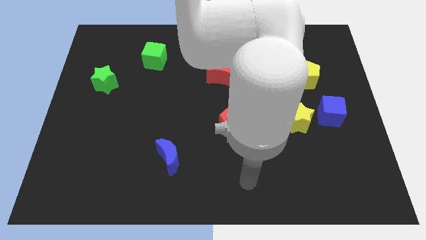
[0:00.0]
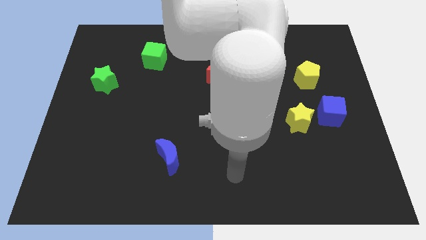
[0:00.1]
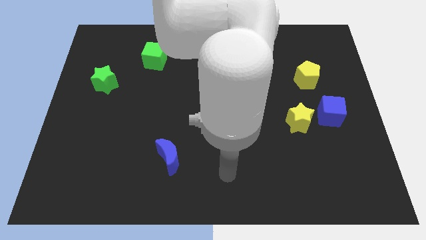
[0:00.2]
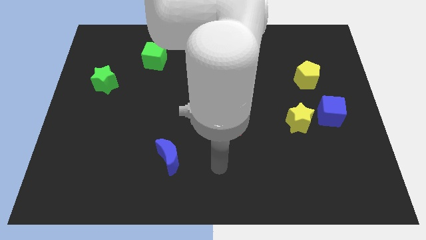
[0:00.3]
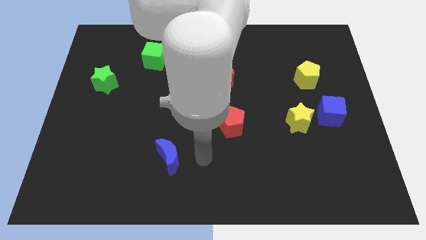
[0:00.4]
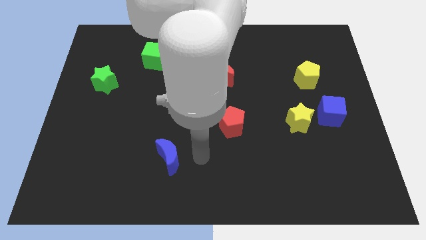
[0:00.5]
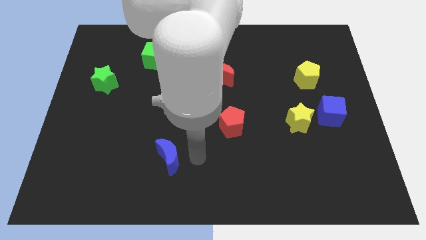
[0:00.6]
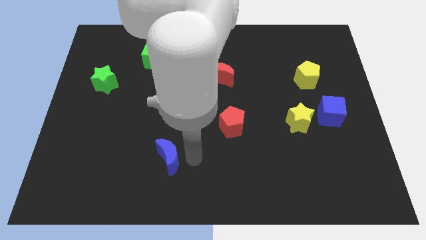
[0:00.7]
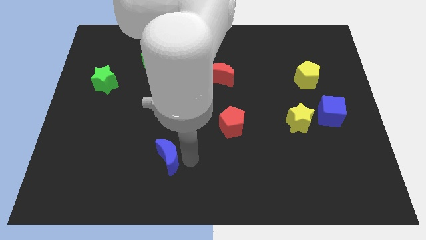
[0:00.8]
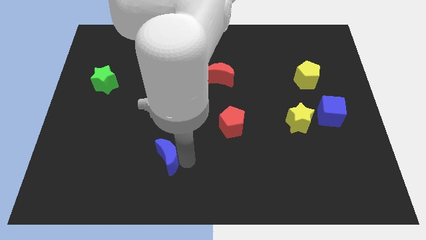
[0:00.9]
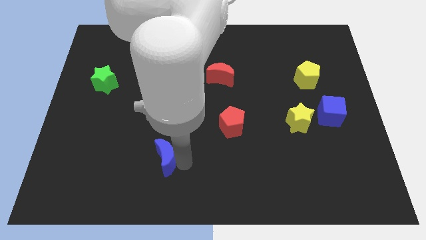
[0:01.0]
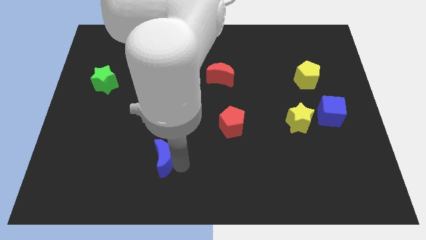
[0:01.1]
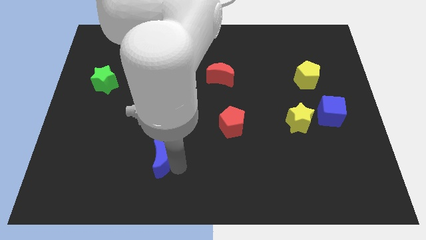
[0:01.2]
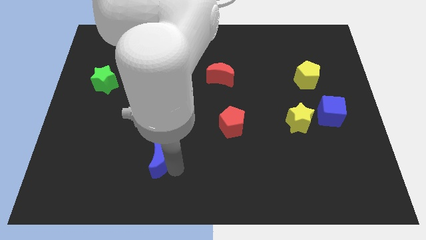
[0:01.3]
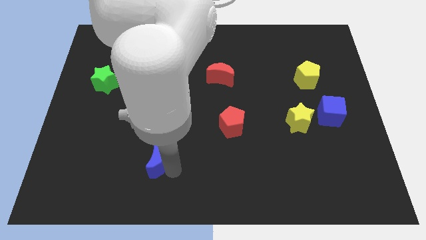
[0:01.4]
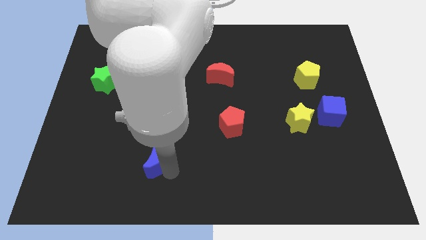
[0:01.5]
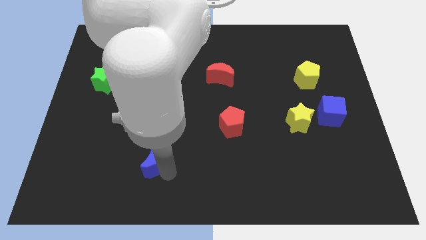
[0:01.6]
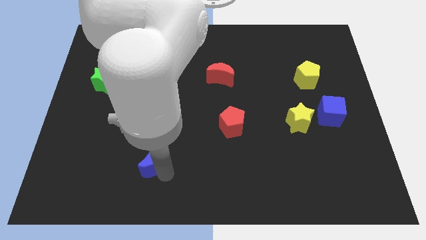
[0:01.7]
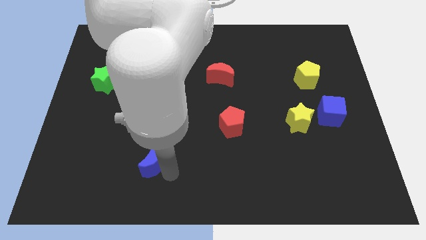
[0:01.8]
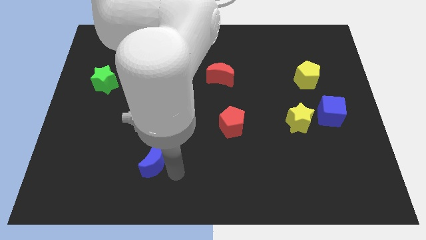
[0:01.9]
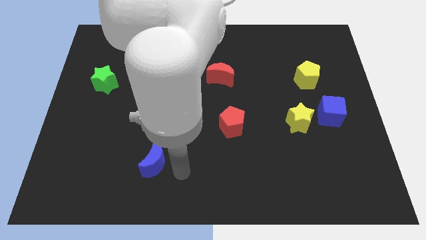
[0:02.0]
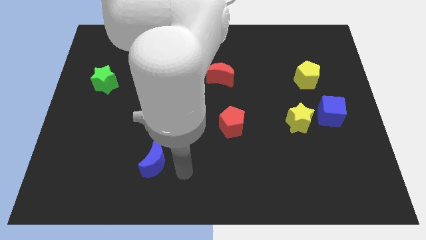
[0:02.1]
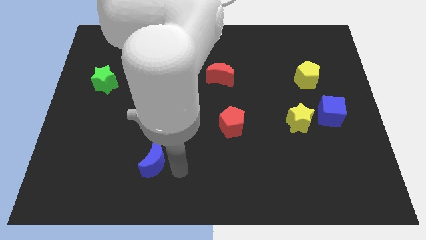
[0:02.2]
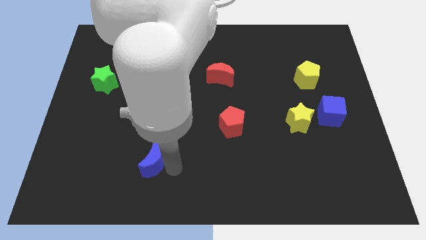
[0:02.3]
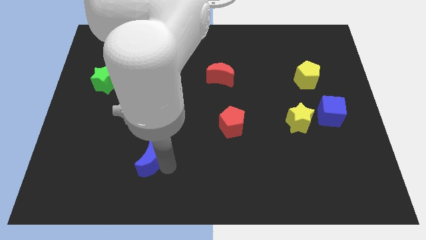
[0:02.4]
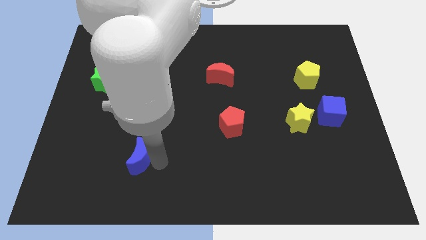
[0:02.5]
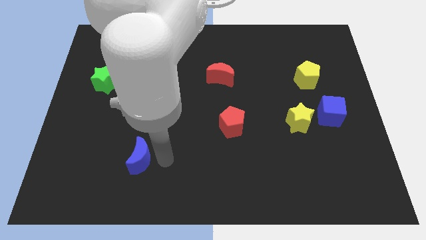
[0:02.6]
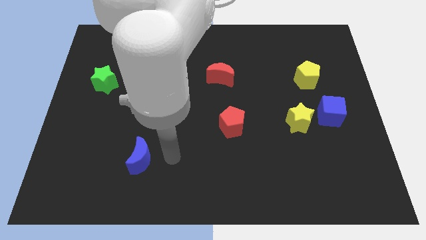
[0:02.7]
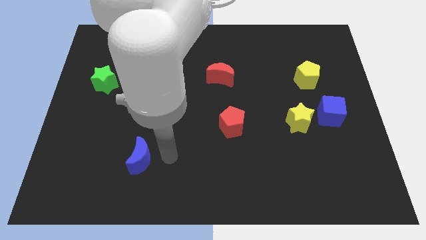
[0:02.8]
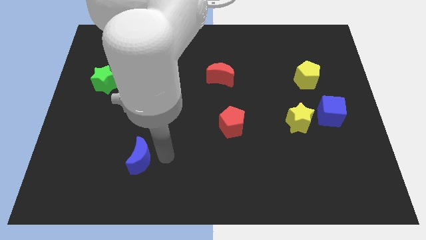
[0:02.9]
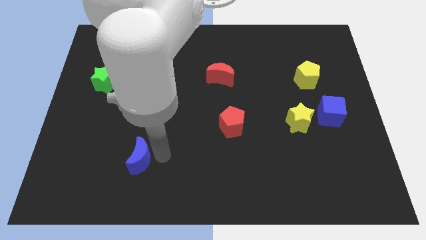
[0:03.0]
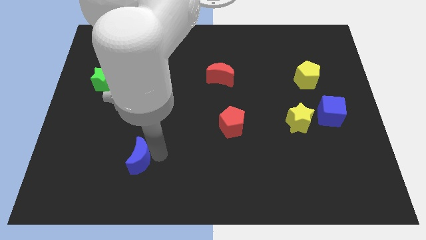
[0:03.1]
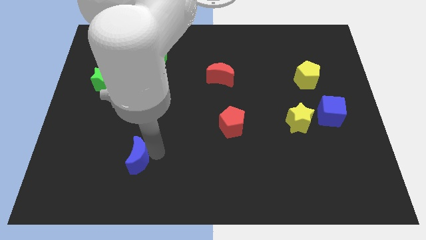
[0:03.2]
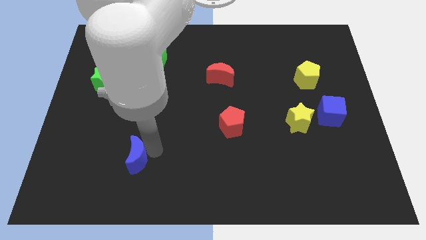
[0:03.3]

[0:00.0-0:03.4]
slide the blue moon a bit to the left

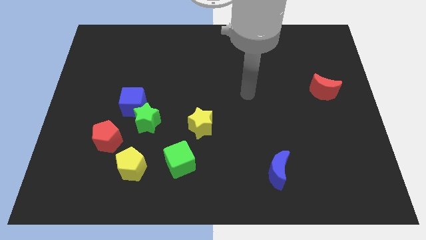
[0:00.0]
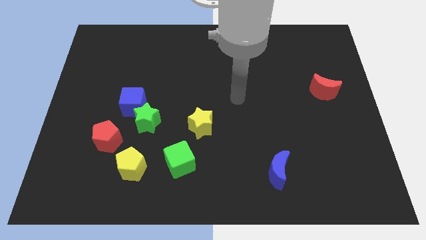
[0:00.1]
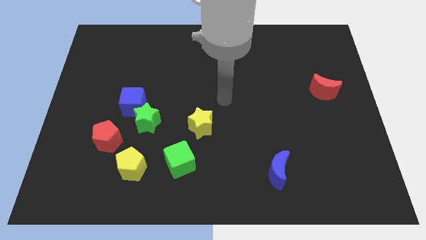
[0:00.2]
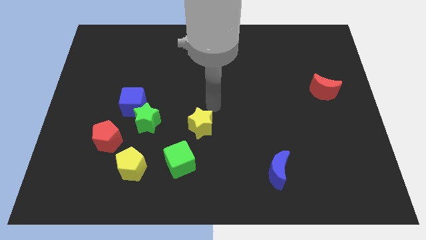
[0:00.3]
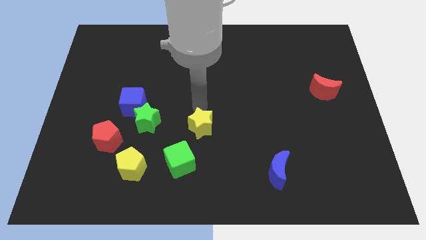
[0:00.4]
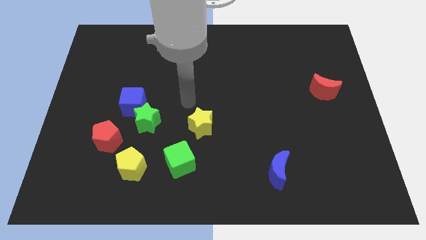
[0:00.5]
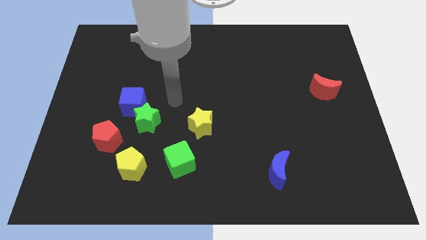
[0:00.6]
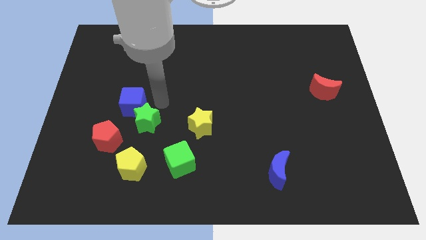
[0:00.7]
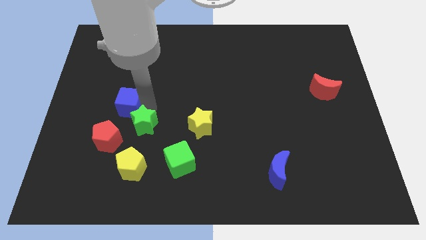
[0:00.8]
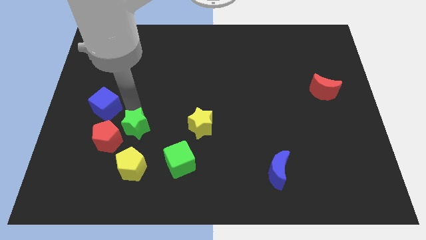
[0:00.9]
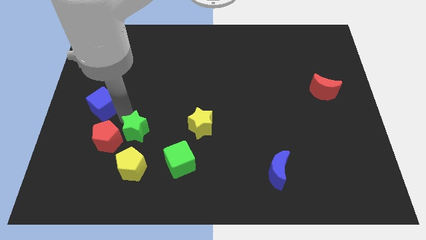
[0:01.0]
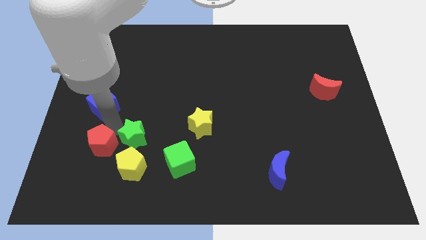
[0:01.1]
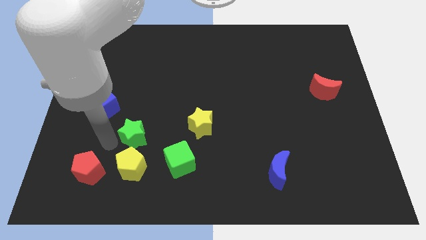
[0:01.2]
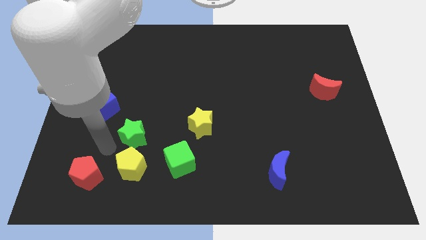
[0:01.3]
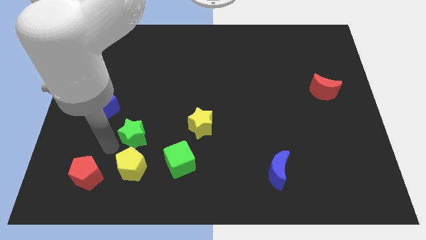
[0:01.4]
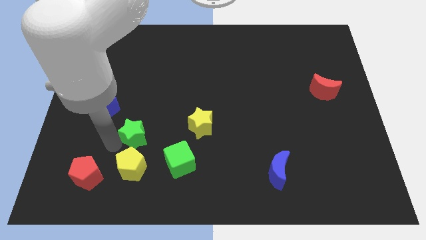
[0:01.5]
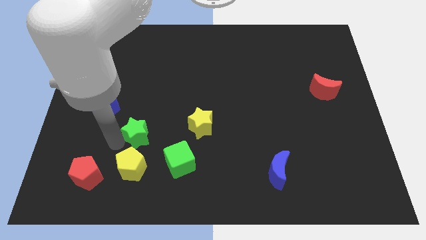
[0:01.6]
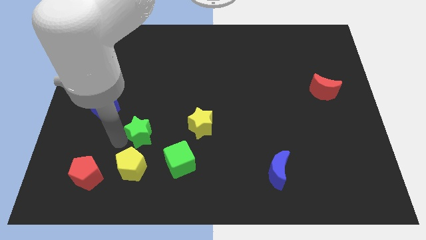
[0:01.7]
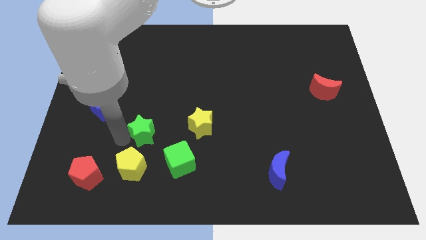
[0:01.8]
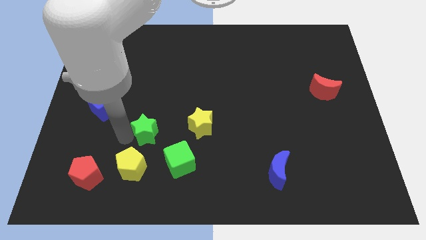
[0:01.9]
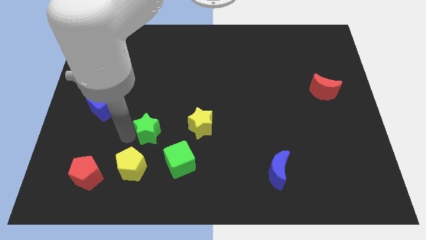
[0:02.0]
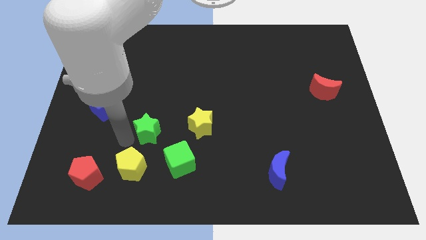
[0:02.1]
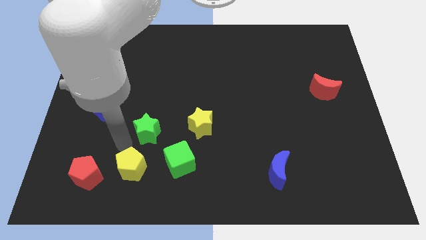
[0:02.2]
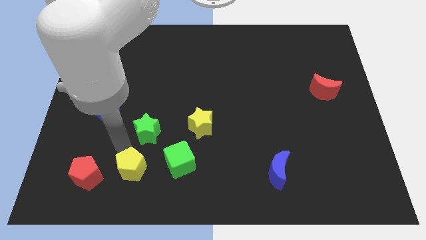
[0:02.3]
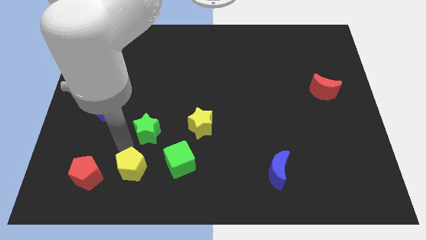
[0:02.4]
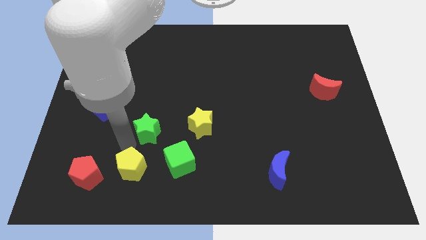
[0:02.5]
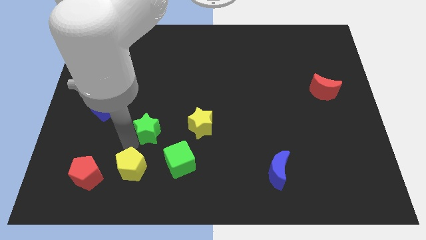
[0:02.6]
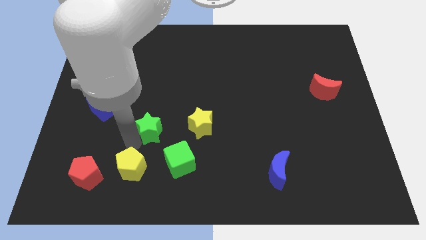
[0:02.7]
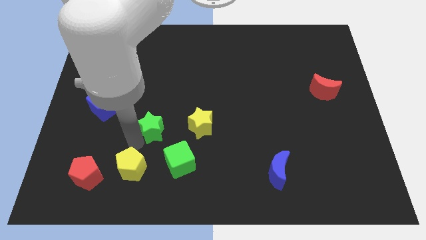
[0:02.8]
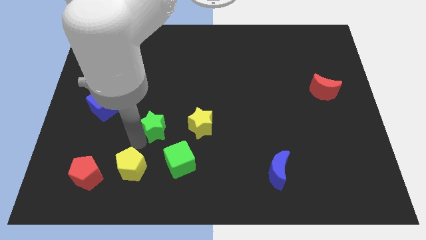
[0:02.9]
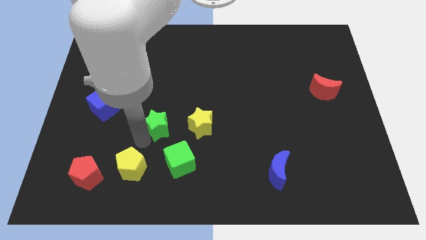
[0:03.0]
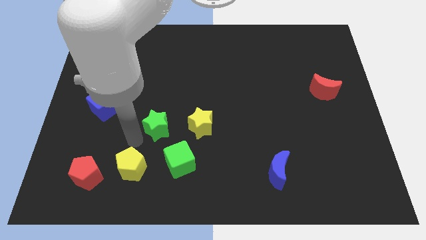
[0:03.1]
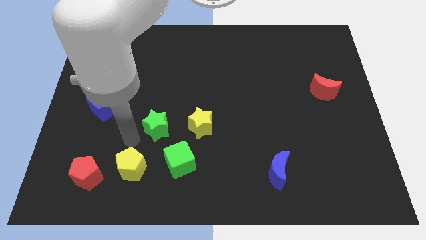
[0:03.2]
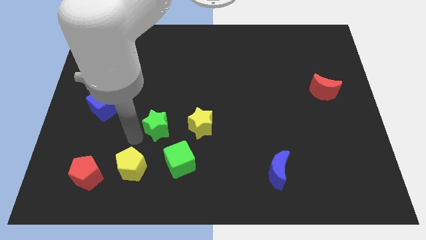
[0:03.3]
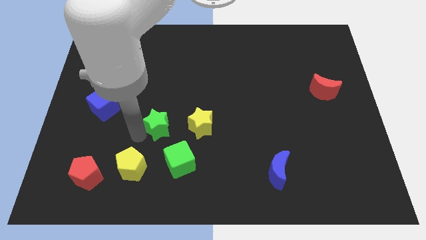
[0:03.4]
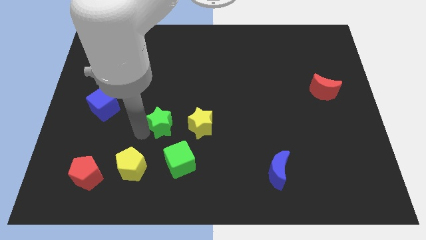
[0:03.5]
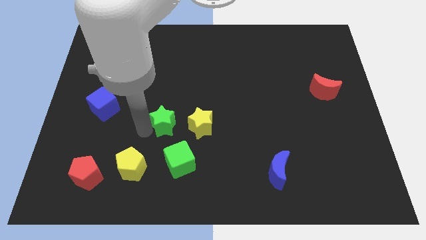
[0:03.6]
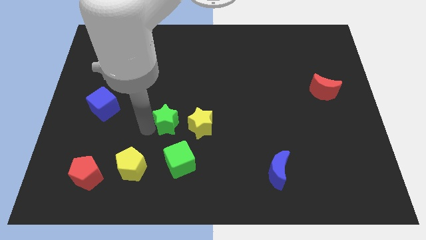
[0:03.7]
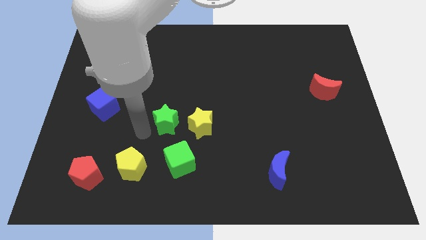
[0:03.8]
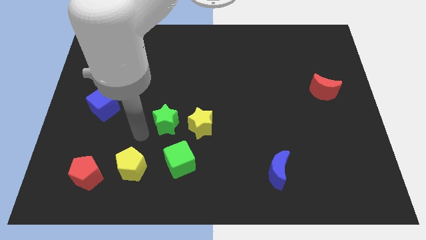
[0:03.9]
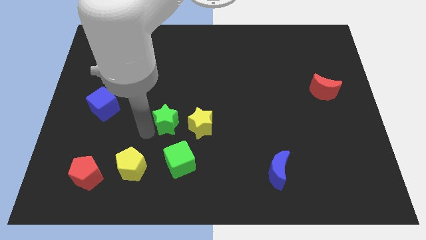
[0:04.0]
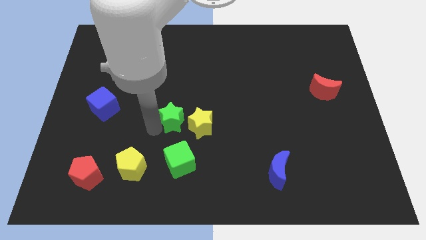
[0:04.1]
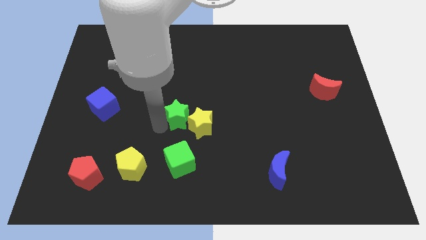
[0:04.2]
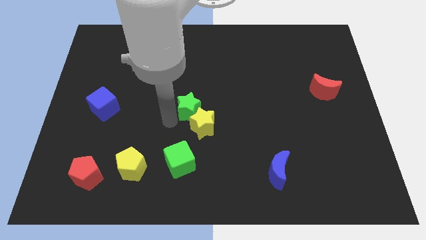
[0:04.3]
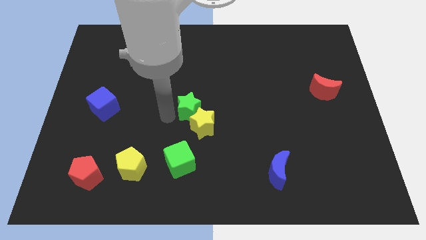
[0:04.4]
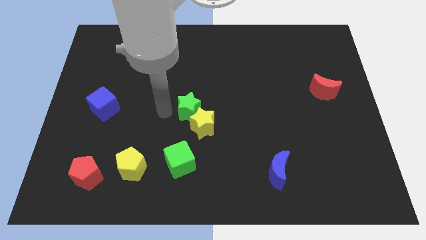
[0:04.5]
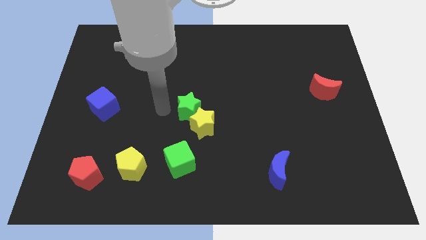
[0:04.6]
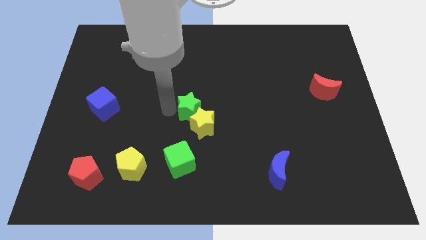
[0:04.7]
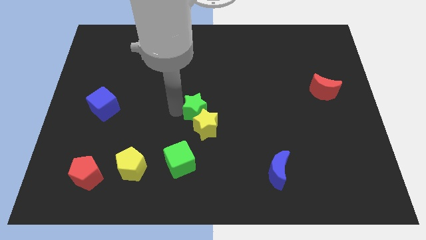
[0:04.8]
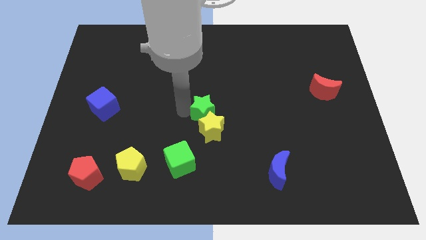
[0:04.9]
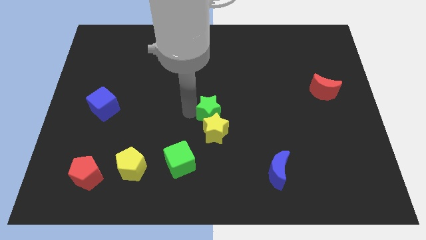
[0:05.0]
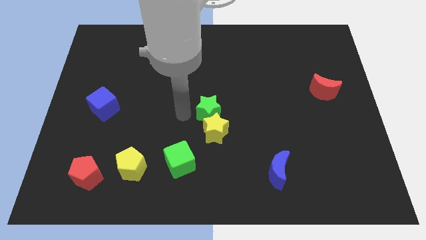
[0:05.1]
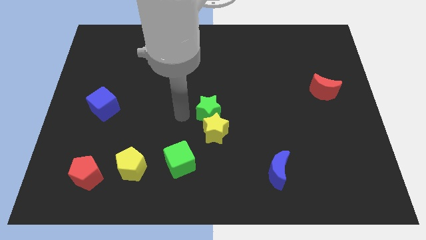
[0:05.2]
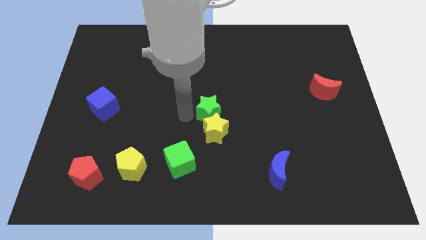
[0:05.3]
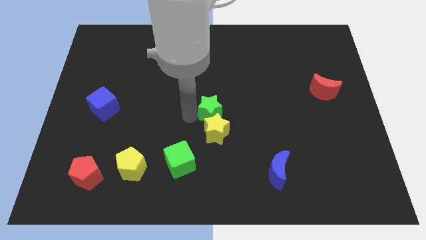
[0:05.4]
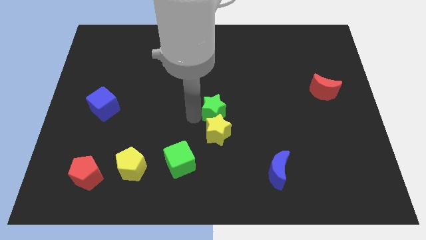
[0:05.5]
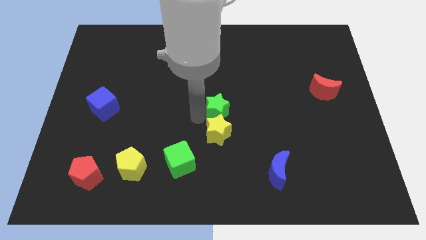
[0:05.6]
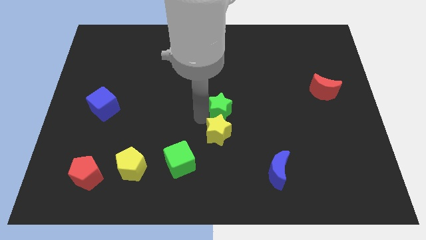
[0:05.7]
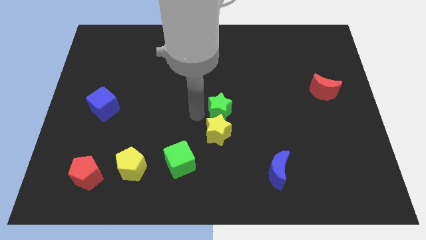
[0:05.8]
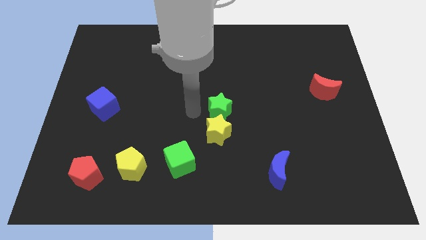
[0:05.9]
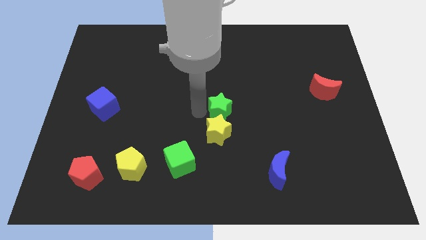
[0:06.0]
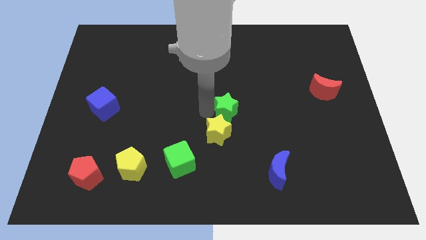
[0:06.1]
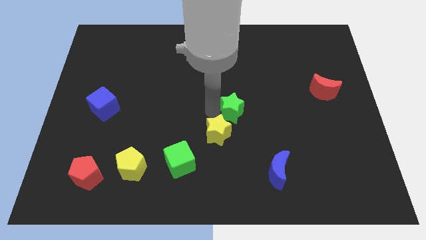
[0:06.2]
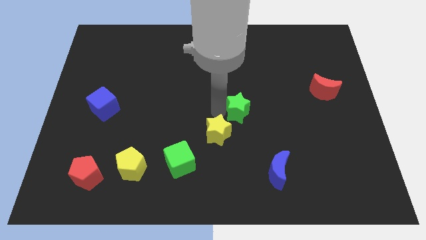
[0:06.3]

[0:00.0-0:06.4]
slide the green star to the right
